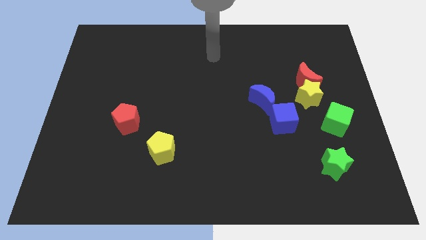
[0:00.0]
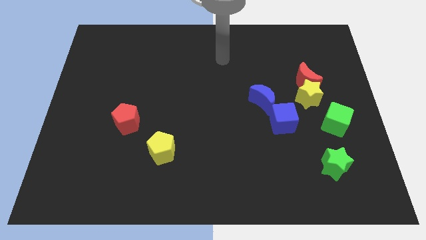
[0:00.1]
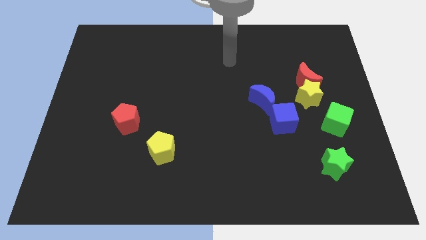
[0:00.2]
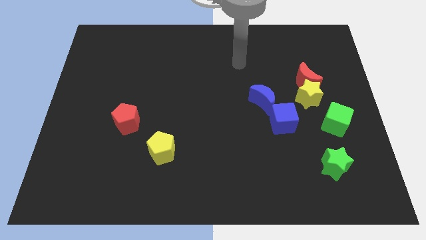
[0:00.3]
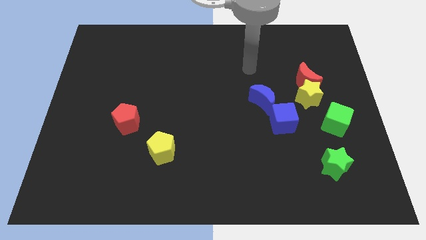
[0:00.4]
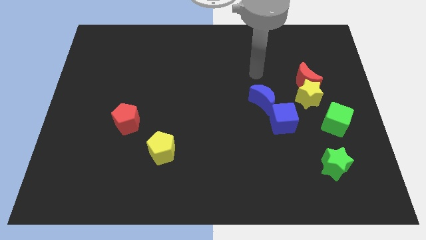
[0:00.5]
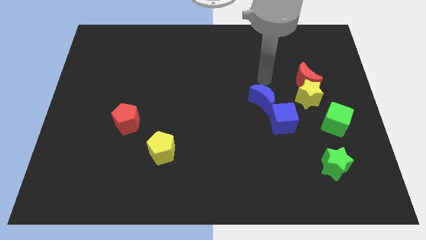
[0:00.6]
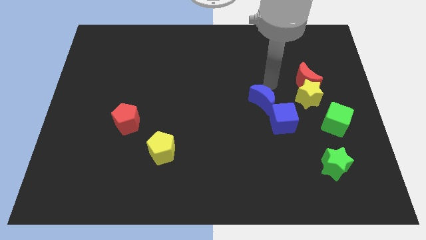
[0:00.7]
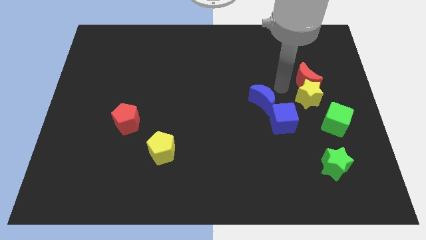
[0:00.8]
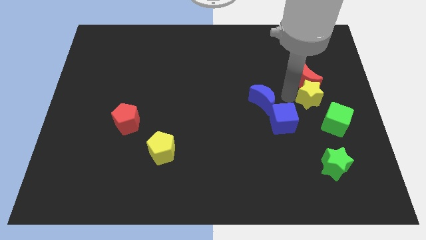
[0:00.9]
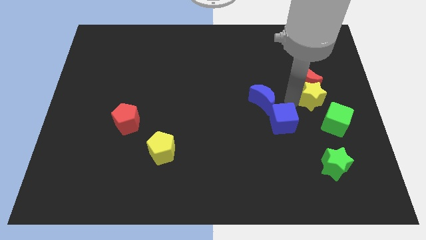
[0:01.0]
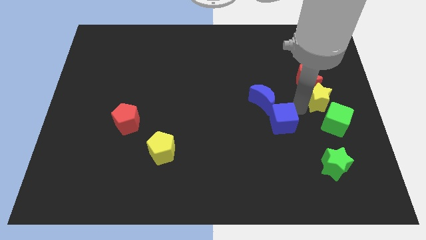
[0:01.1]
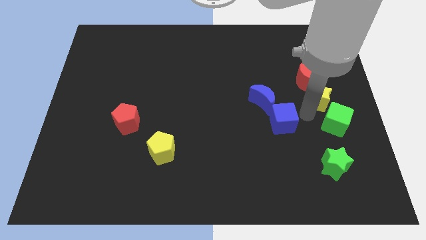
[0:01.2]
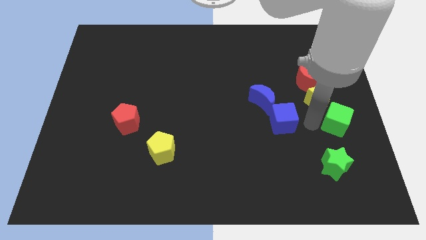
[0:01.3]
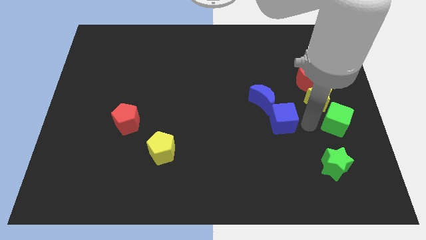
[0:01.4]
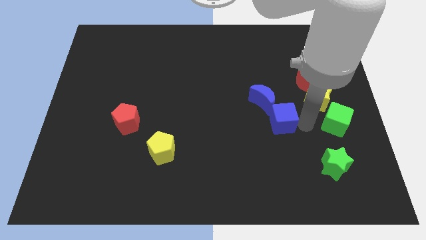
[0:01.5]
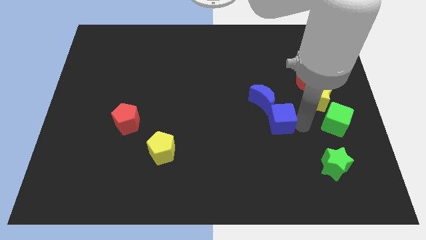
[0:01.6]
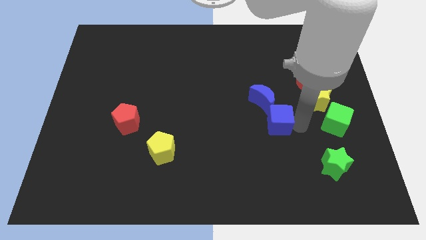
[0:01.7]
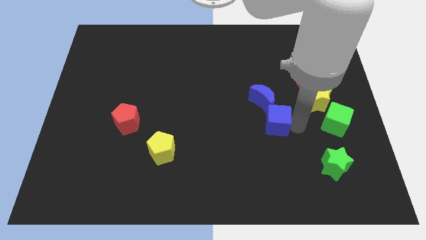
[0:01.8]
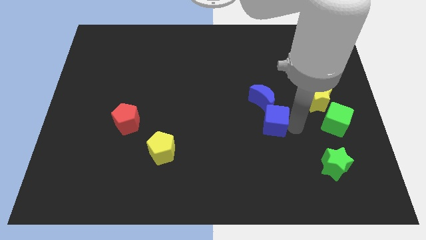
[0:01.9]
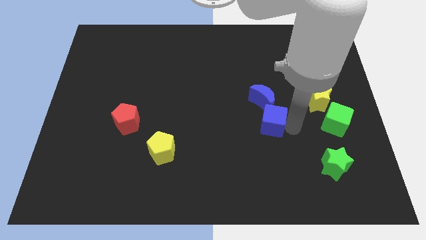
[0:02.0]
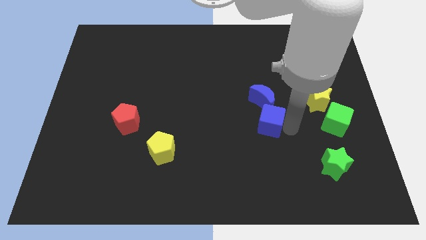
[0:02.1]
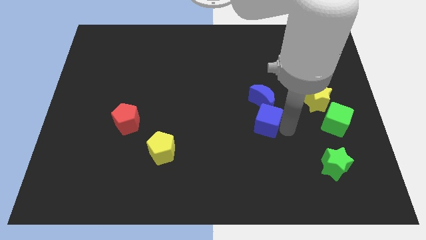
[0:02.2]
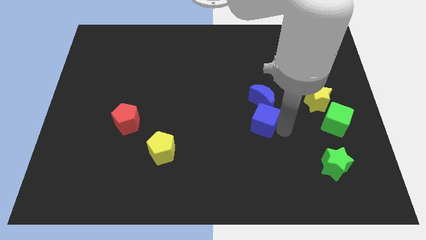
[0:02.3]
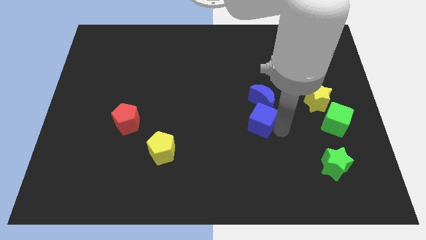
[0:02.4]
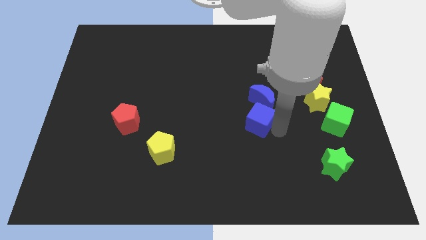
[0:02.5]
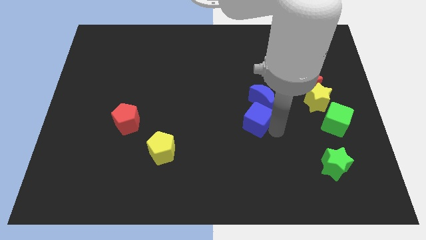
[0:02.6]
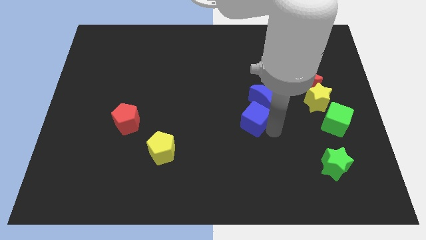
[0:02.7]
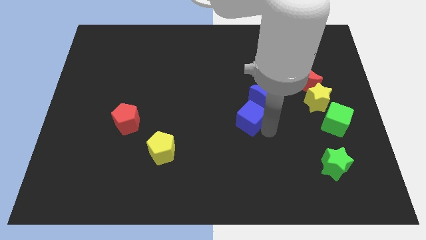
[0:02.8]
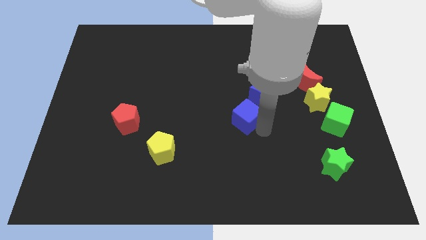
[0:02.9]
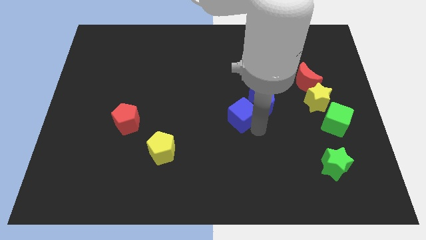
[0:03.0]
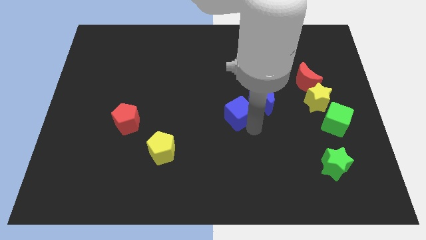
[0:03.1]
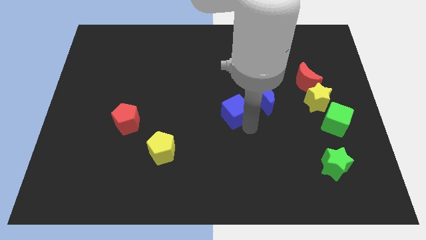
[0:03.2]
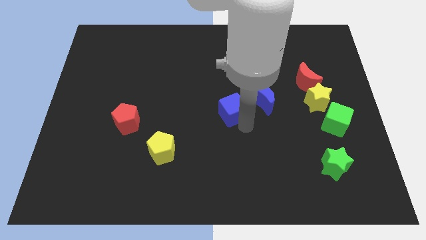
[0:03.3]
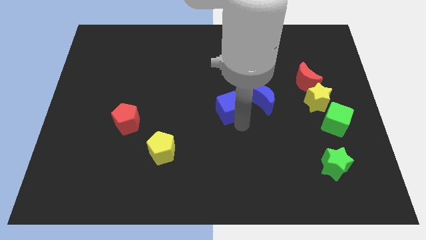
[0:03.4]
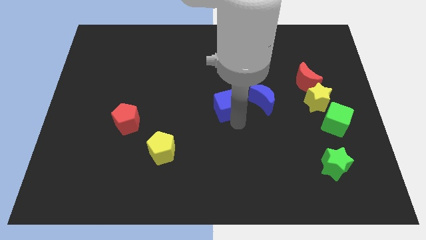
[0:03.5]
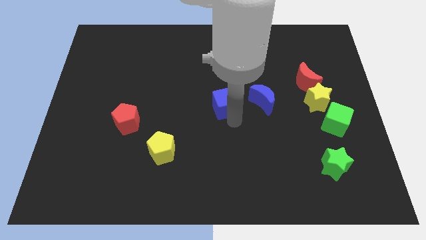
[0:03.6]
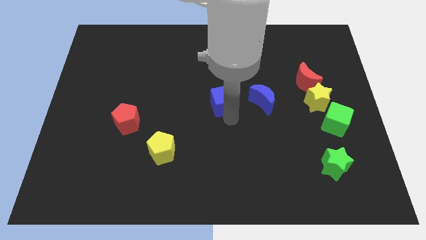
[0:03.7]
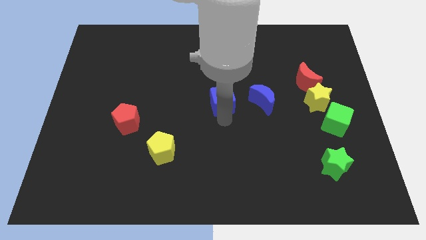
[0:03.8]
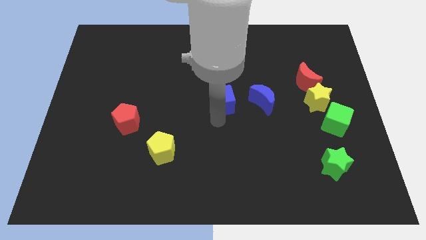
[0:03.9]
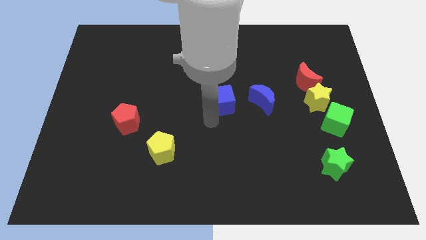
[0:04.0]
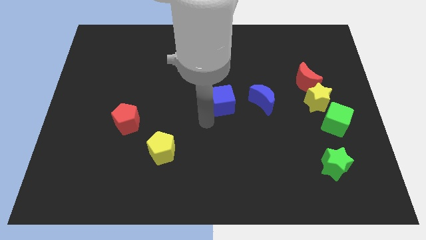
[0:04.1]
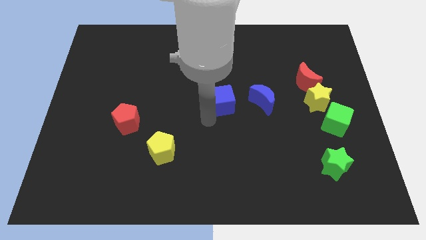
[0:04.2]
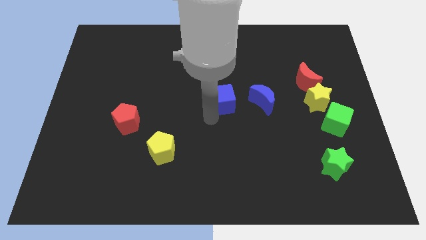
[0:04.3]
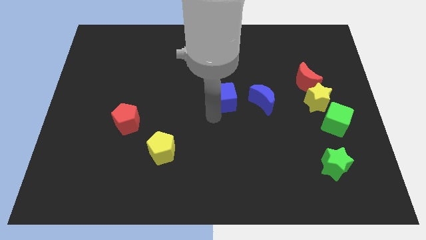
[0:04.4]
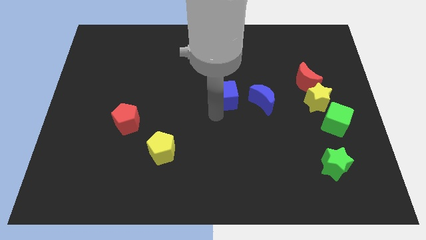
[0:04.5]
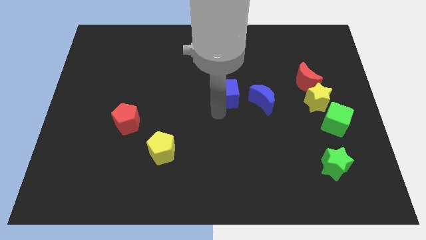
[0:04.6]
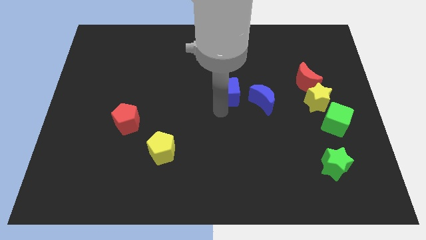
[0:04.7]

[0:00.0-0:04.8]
move the blue cube to the top left side of the blue moon

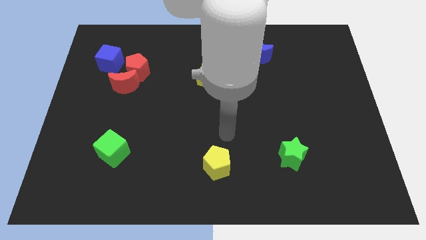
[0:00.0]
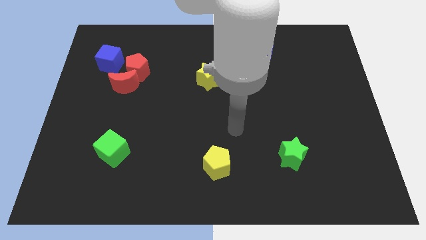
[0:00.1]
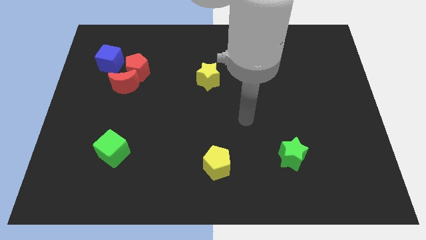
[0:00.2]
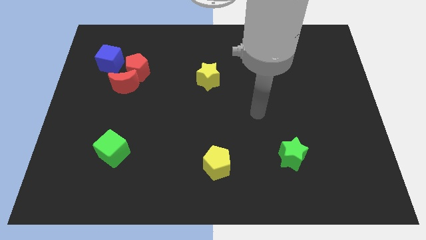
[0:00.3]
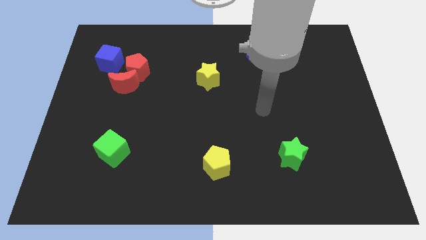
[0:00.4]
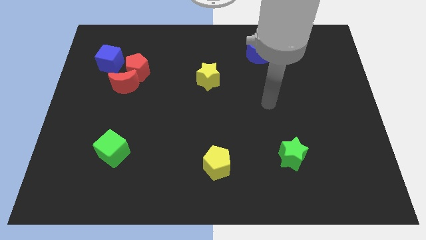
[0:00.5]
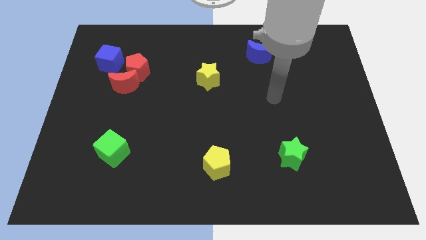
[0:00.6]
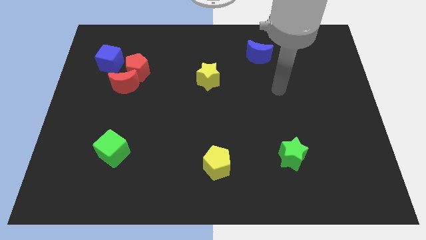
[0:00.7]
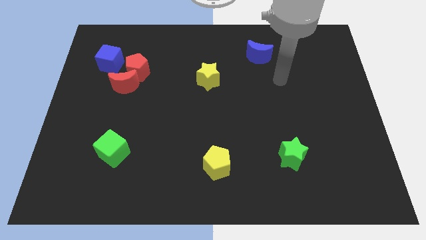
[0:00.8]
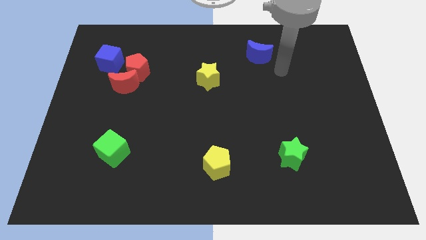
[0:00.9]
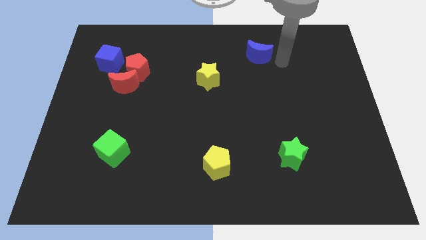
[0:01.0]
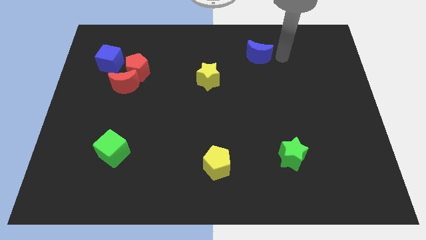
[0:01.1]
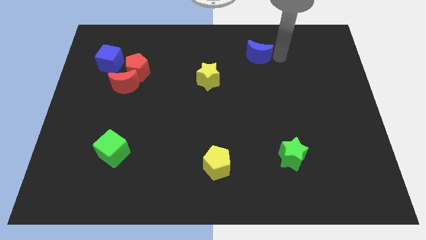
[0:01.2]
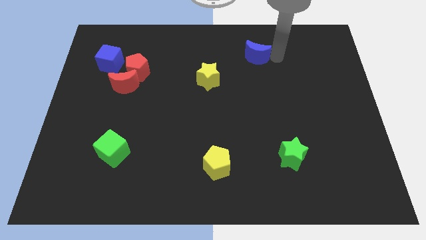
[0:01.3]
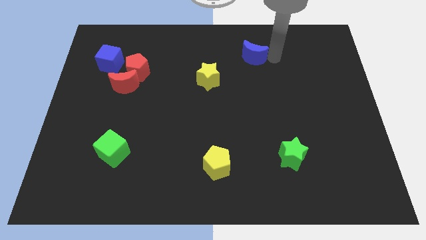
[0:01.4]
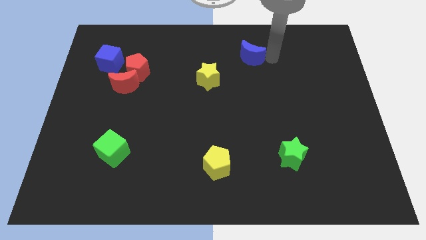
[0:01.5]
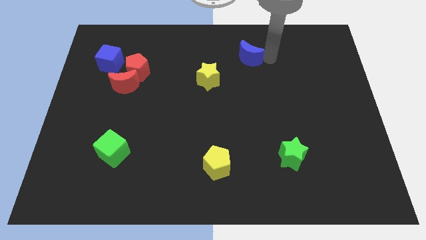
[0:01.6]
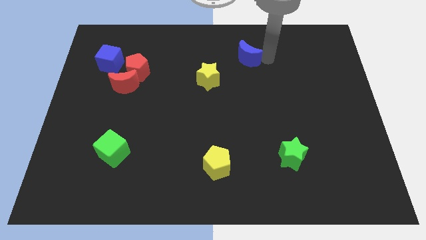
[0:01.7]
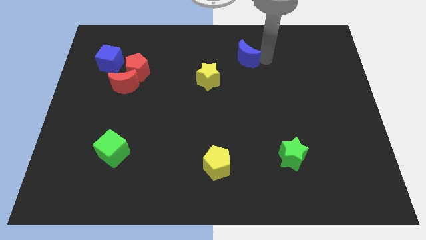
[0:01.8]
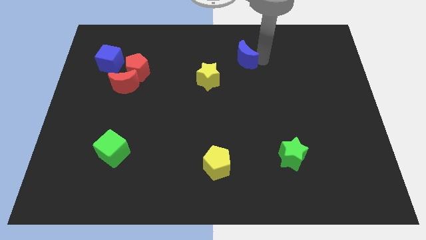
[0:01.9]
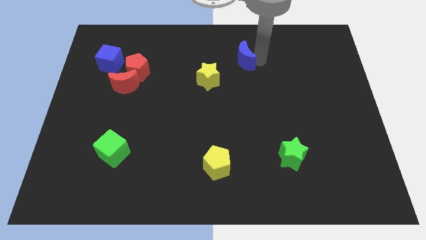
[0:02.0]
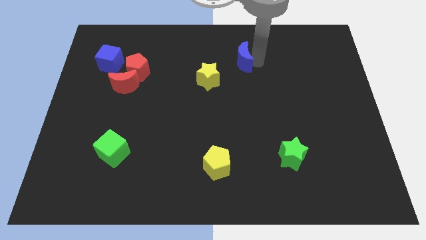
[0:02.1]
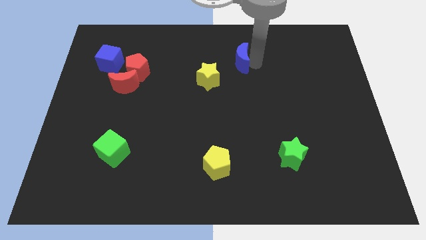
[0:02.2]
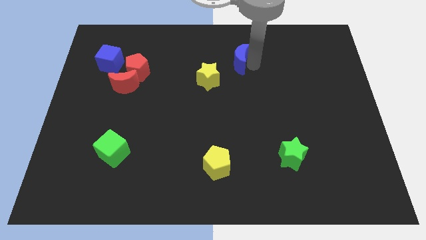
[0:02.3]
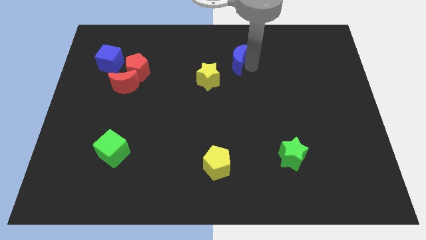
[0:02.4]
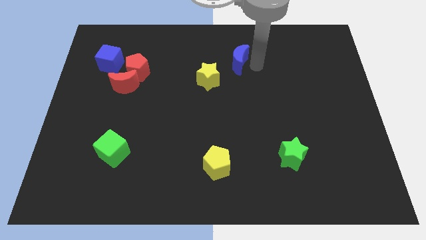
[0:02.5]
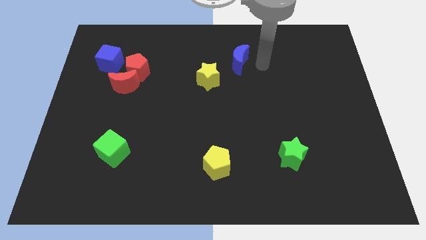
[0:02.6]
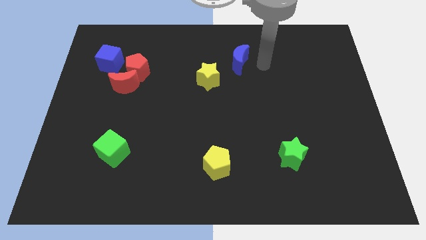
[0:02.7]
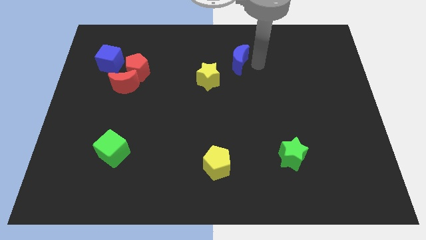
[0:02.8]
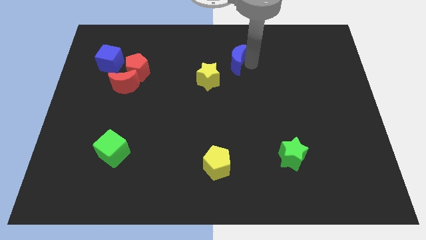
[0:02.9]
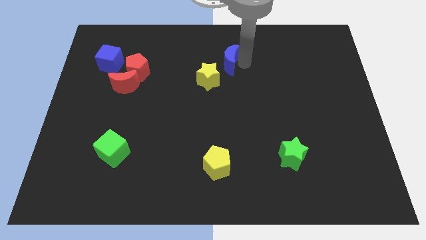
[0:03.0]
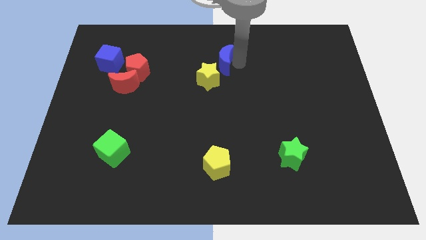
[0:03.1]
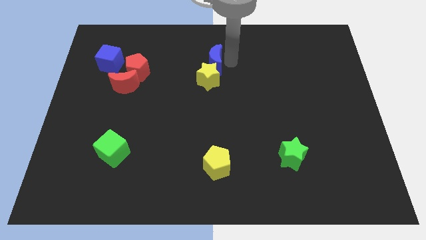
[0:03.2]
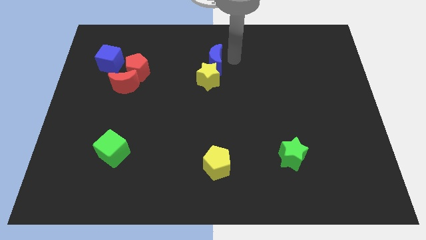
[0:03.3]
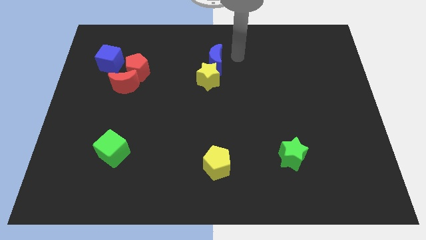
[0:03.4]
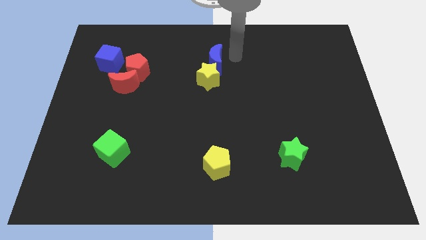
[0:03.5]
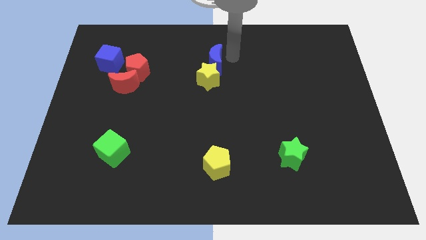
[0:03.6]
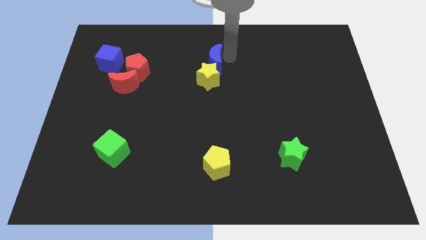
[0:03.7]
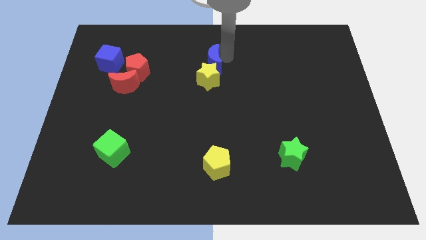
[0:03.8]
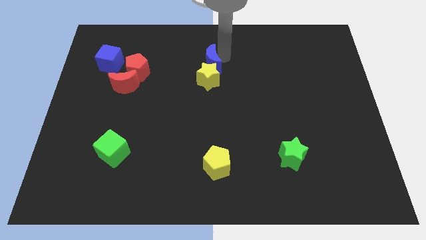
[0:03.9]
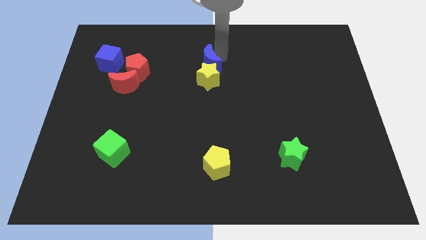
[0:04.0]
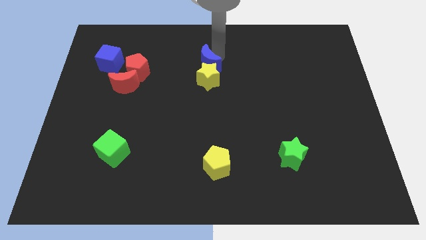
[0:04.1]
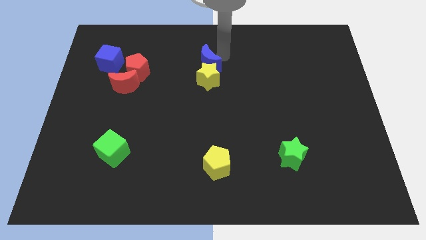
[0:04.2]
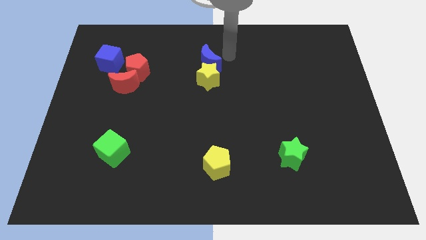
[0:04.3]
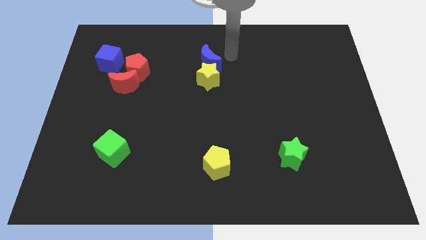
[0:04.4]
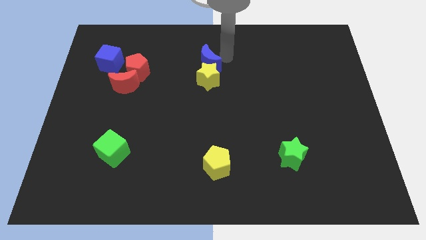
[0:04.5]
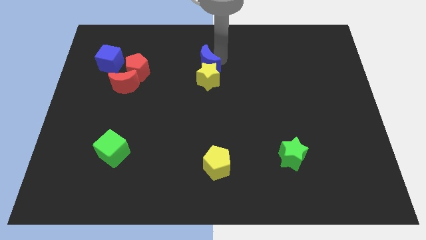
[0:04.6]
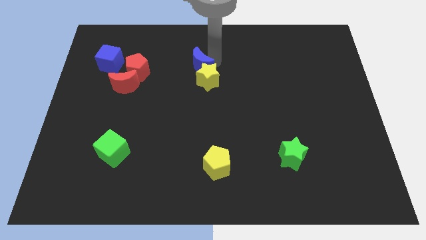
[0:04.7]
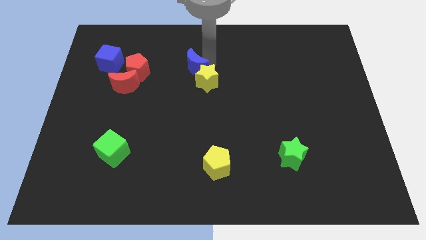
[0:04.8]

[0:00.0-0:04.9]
put the blue moon left of the yellow star
